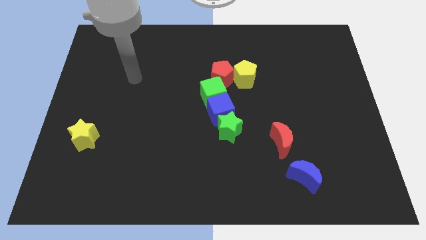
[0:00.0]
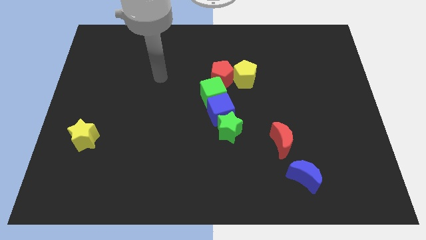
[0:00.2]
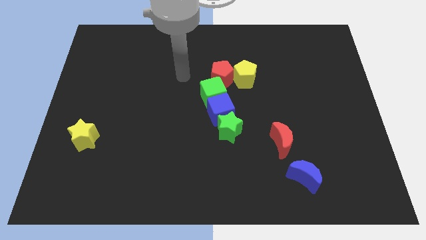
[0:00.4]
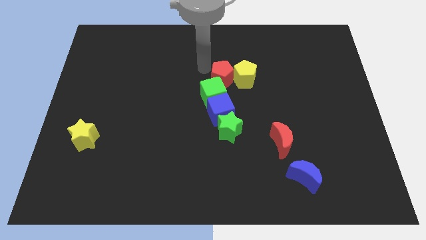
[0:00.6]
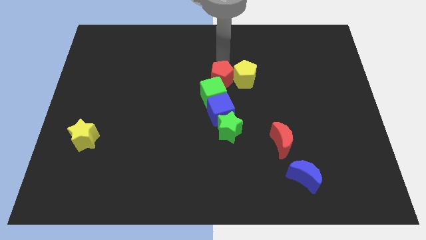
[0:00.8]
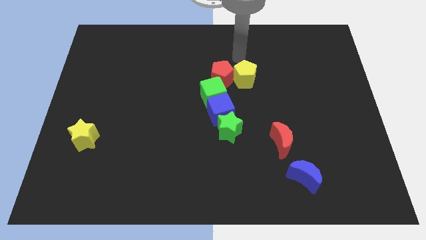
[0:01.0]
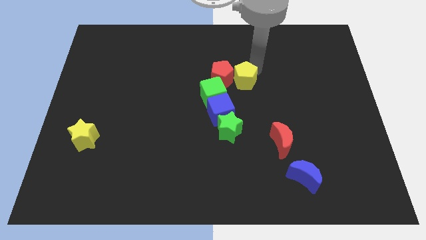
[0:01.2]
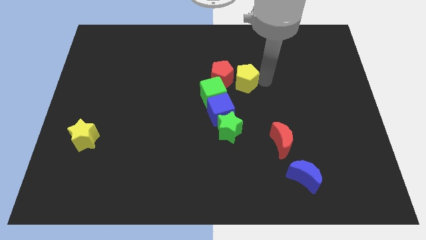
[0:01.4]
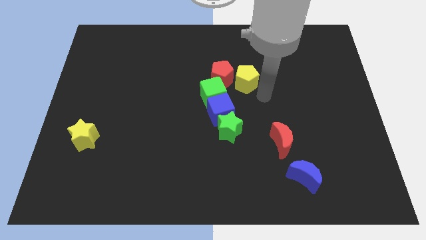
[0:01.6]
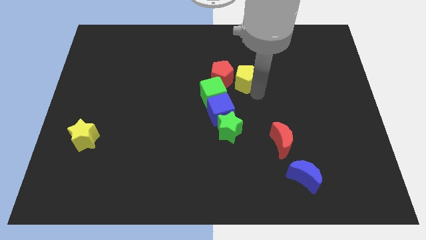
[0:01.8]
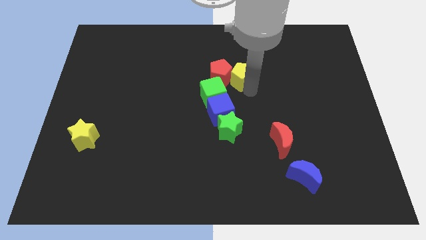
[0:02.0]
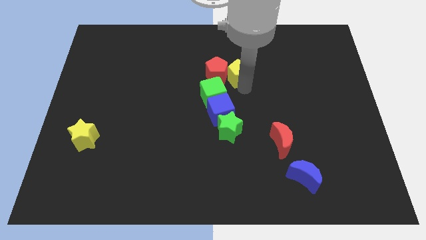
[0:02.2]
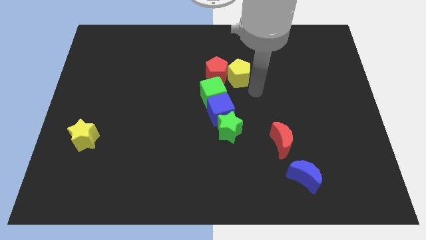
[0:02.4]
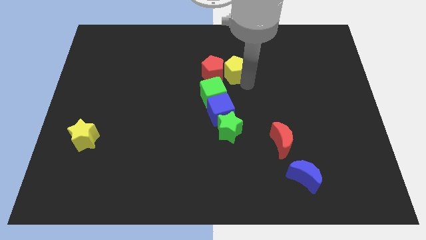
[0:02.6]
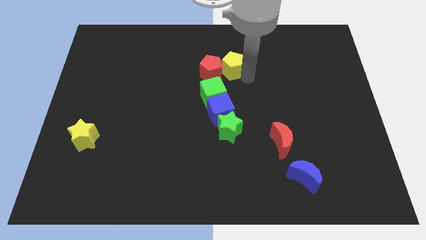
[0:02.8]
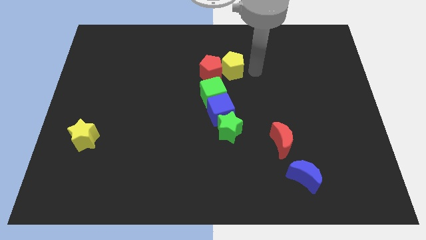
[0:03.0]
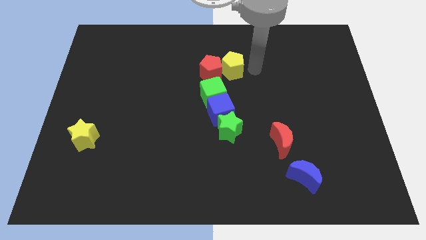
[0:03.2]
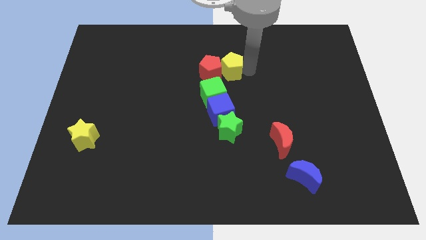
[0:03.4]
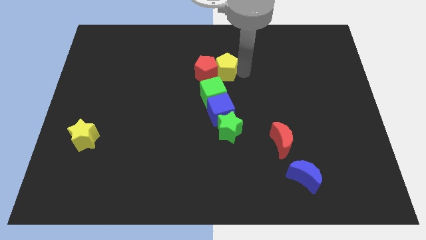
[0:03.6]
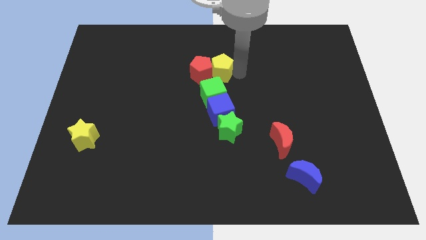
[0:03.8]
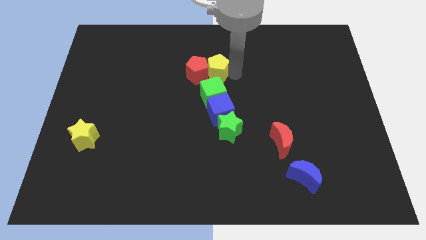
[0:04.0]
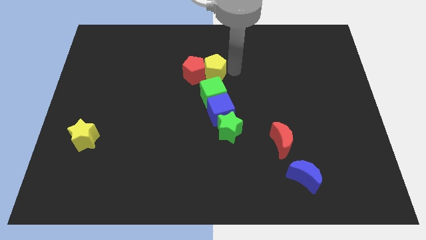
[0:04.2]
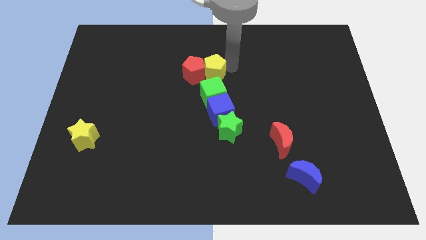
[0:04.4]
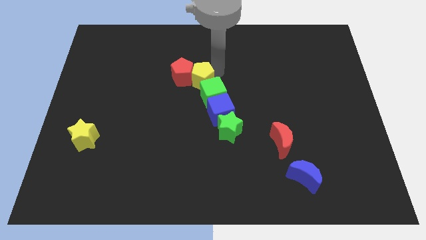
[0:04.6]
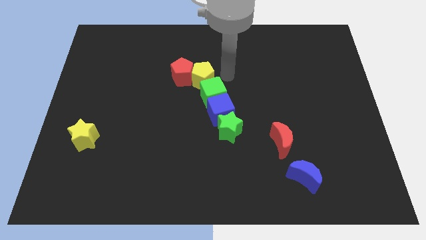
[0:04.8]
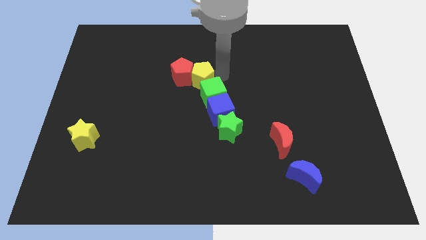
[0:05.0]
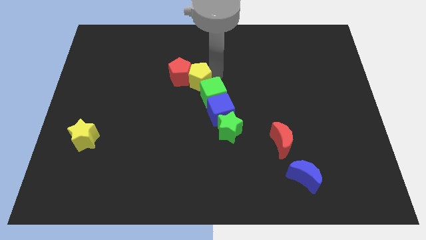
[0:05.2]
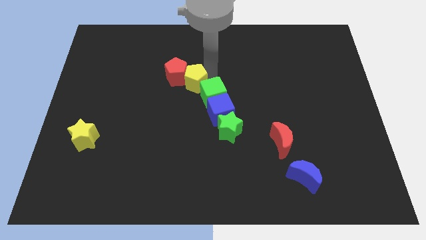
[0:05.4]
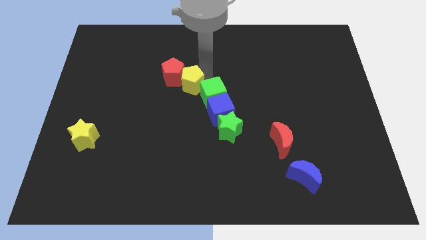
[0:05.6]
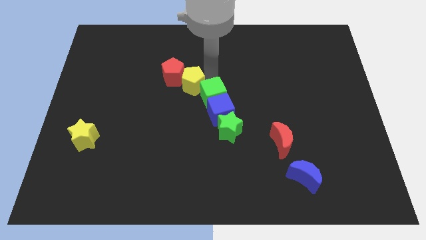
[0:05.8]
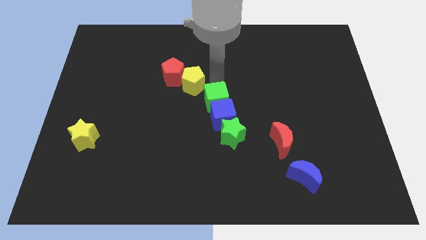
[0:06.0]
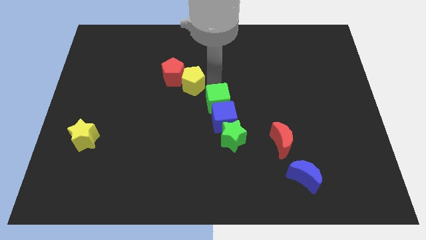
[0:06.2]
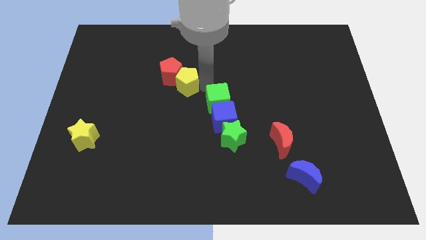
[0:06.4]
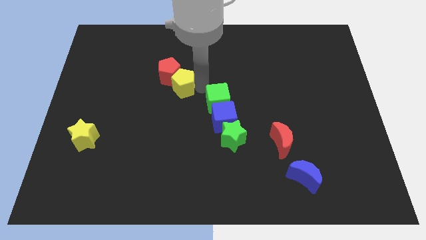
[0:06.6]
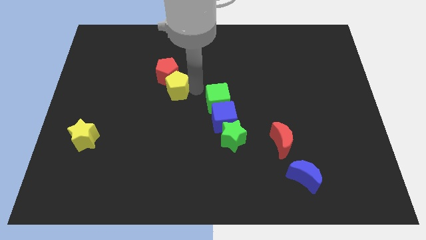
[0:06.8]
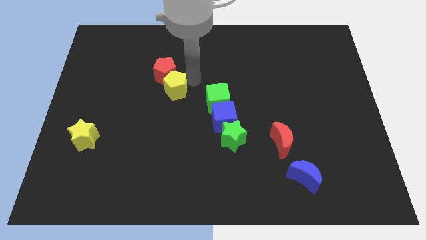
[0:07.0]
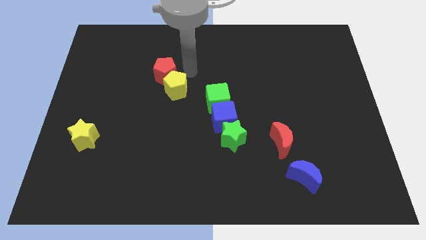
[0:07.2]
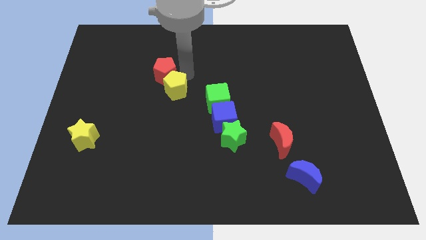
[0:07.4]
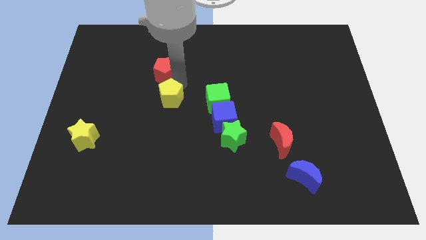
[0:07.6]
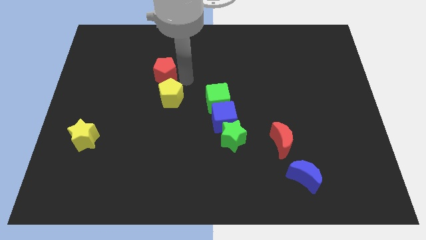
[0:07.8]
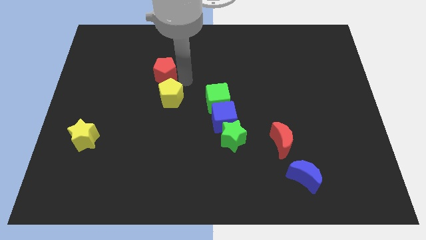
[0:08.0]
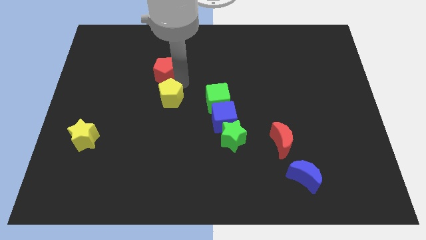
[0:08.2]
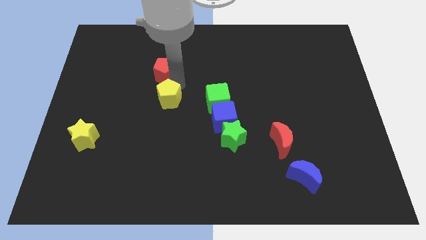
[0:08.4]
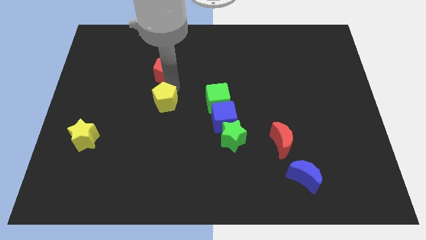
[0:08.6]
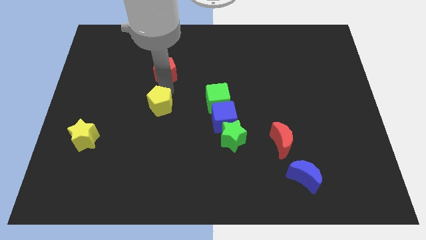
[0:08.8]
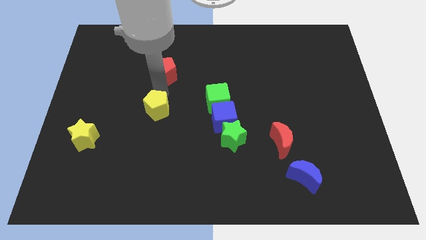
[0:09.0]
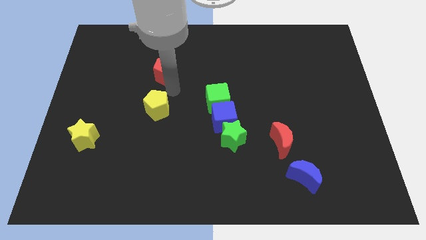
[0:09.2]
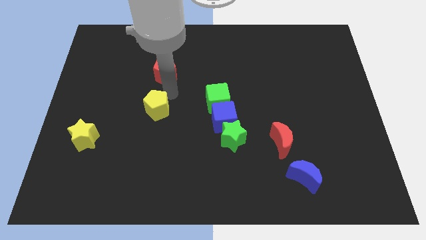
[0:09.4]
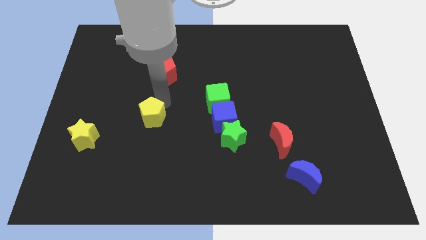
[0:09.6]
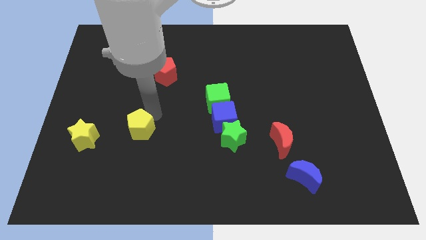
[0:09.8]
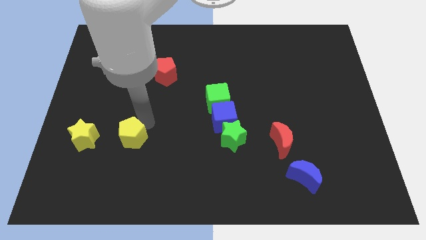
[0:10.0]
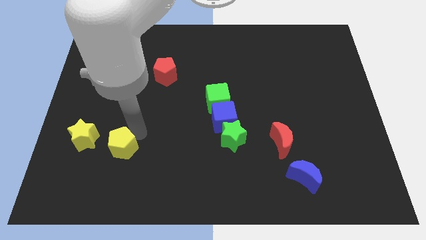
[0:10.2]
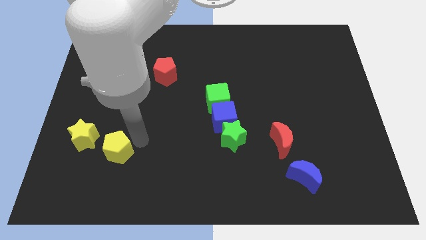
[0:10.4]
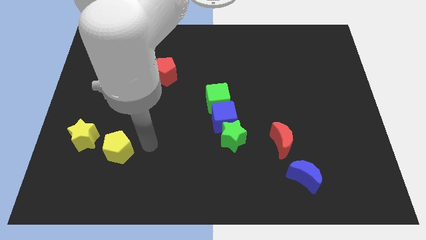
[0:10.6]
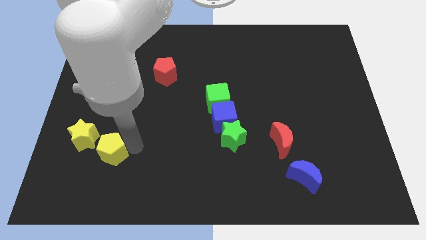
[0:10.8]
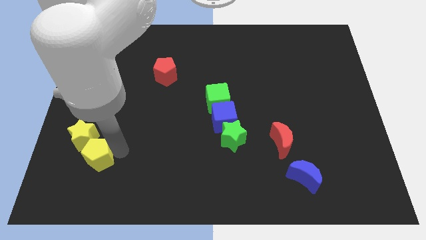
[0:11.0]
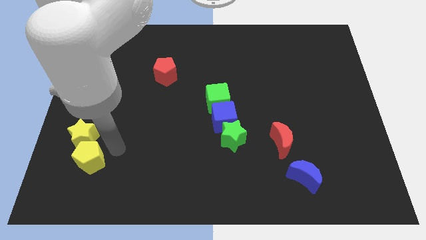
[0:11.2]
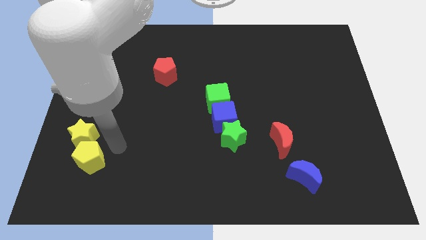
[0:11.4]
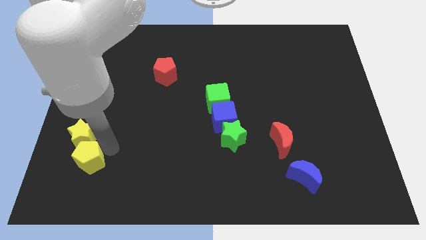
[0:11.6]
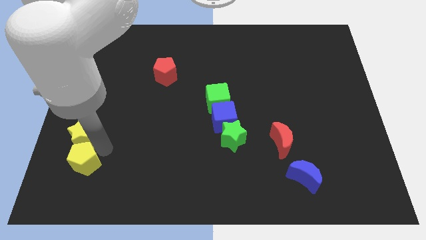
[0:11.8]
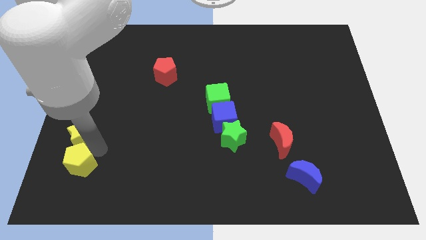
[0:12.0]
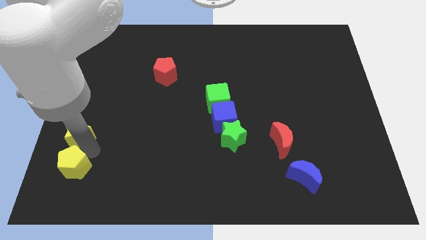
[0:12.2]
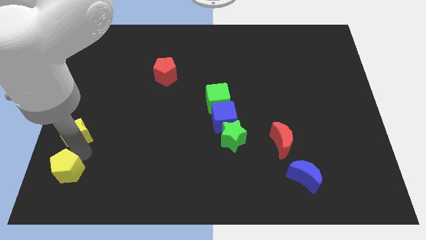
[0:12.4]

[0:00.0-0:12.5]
slide the yellow pentagon to the bottom left corner
